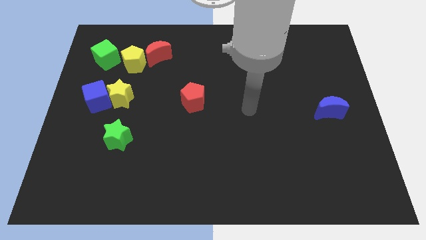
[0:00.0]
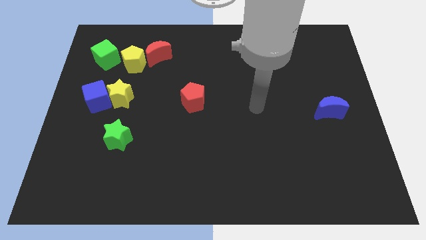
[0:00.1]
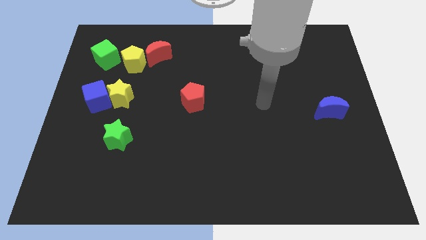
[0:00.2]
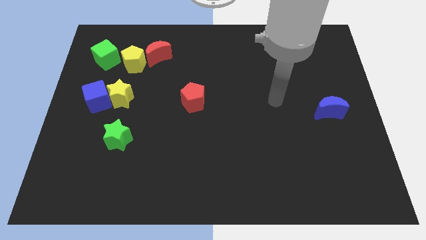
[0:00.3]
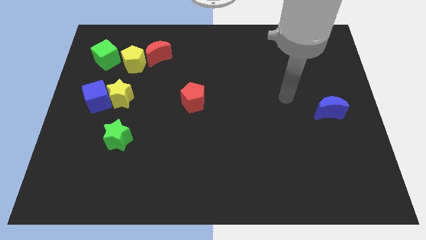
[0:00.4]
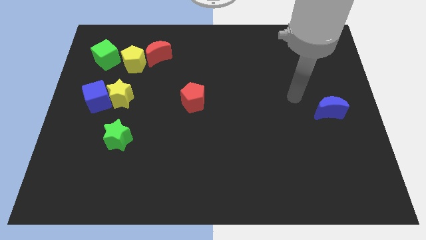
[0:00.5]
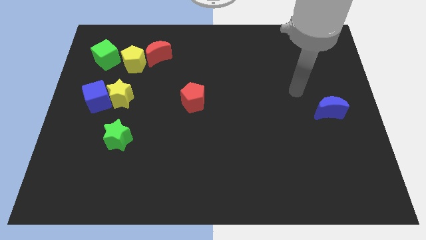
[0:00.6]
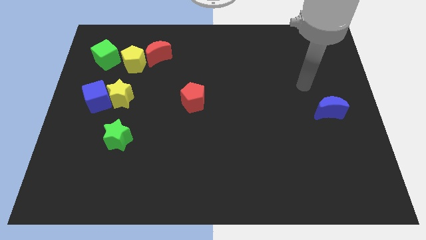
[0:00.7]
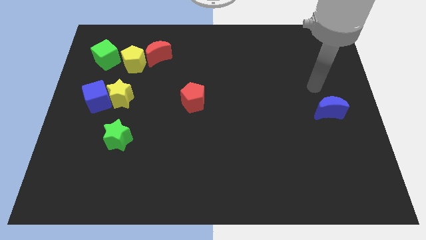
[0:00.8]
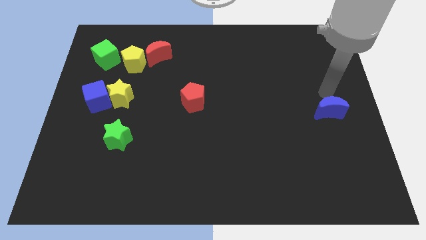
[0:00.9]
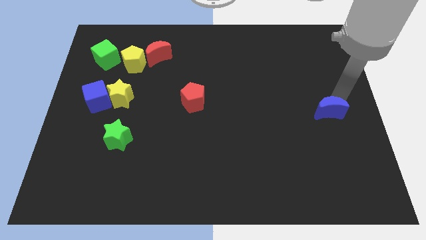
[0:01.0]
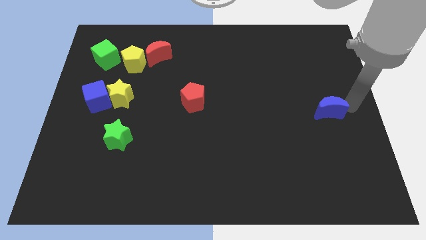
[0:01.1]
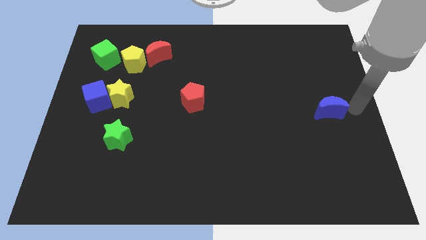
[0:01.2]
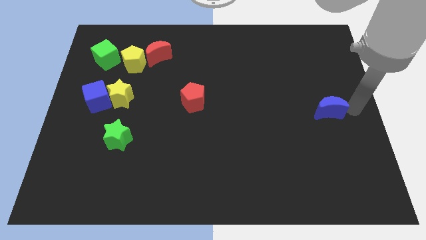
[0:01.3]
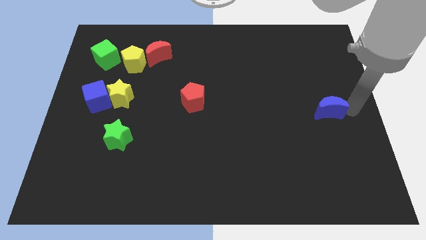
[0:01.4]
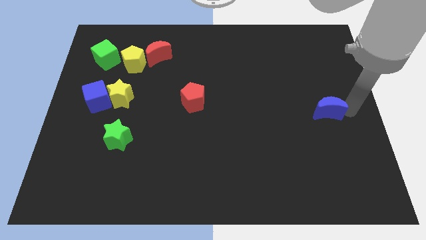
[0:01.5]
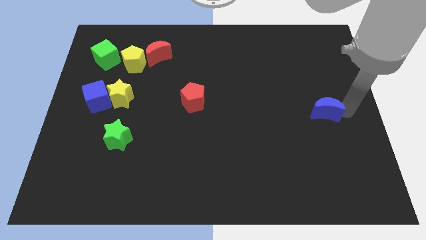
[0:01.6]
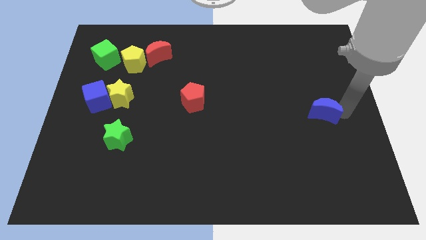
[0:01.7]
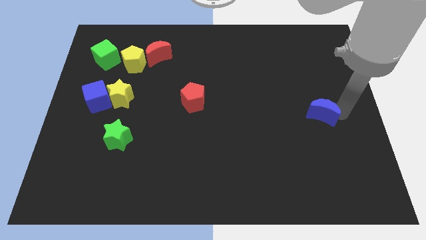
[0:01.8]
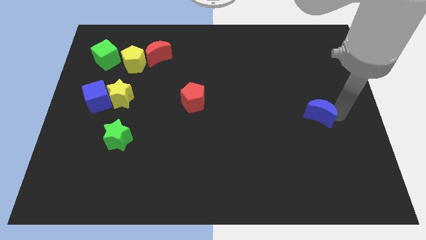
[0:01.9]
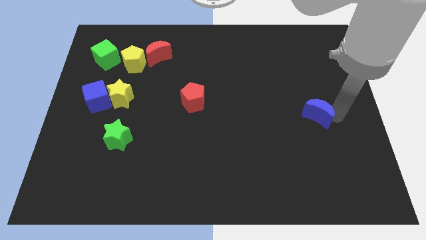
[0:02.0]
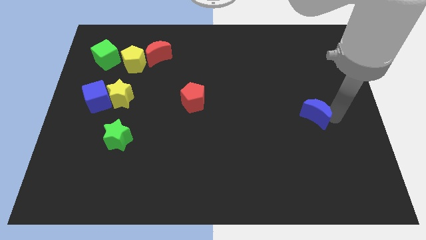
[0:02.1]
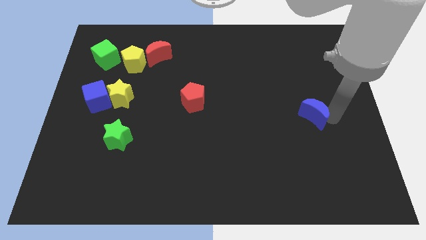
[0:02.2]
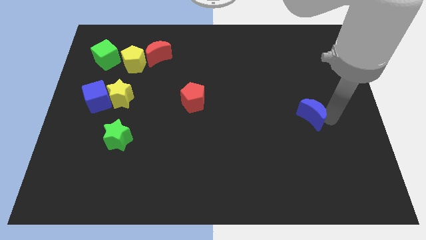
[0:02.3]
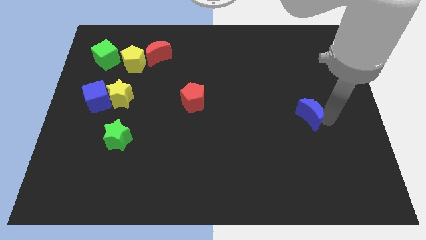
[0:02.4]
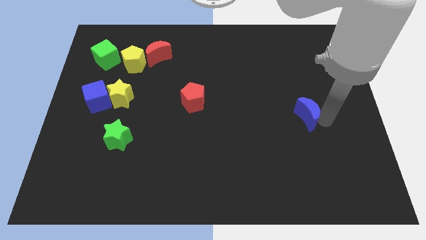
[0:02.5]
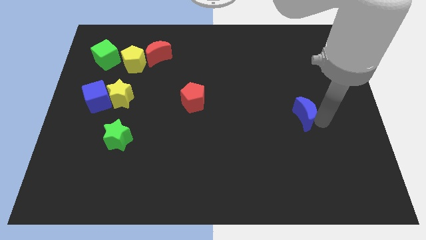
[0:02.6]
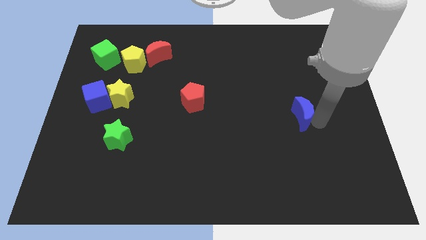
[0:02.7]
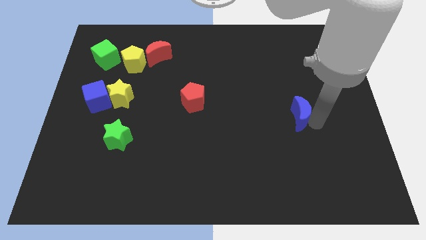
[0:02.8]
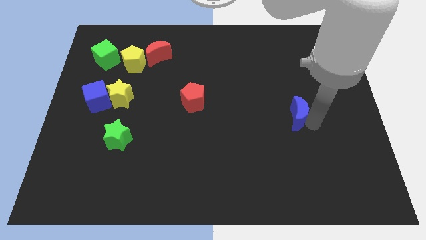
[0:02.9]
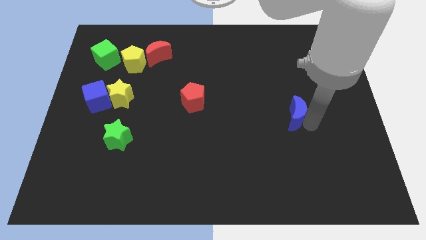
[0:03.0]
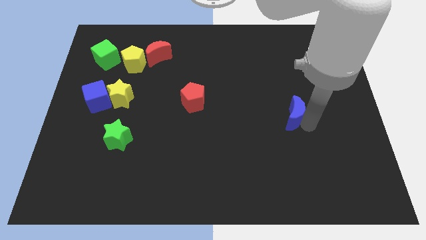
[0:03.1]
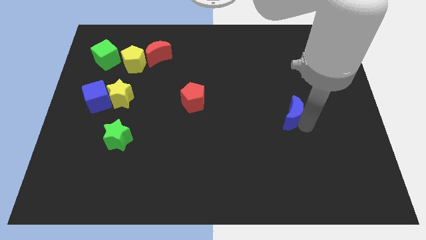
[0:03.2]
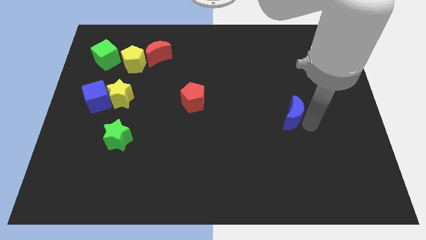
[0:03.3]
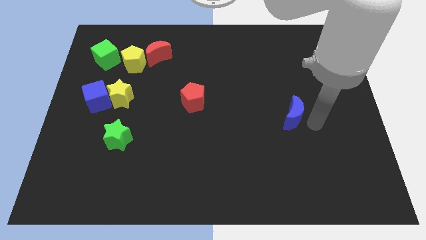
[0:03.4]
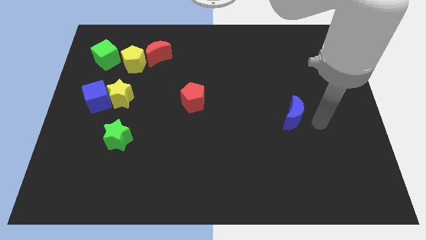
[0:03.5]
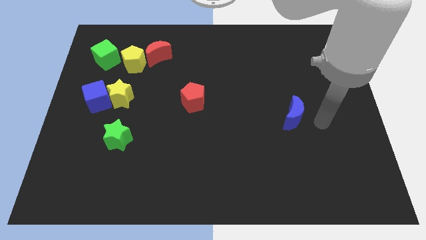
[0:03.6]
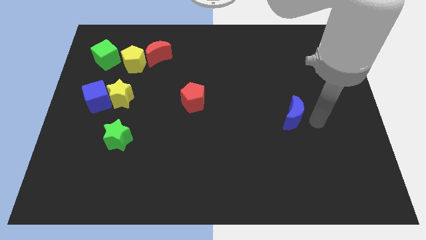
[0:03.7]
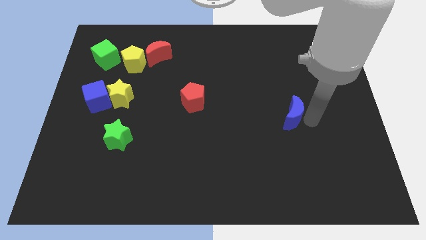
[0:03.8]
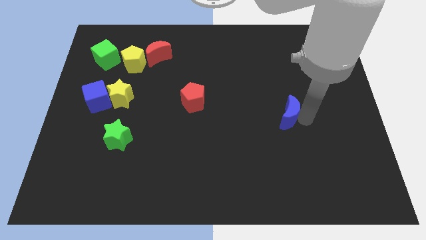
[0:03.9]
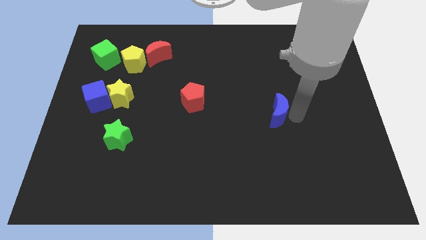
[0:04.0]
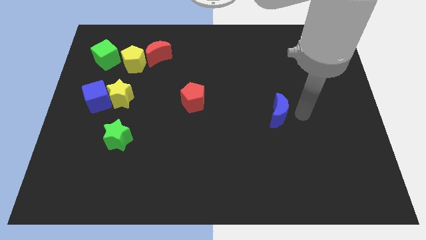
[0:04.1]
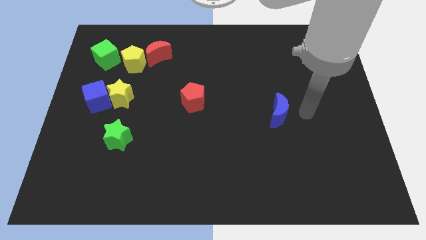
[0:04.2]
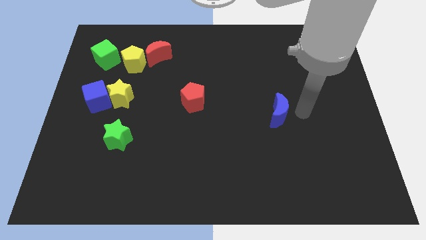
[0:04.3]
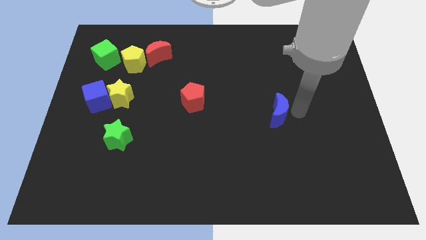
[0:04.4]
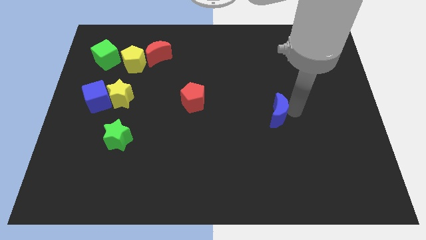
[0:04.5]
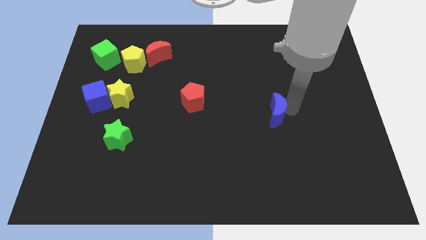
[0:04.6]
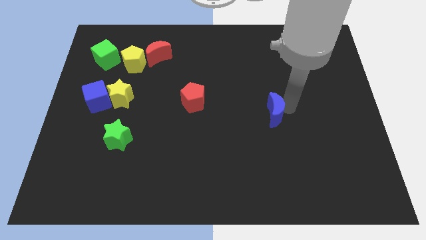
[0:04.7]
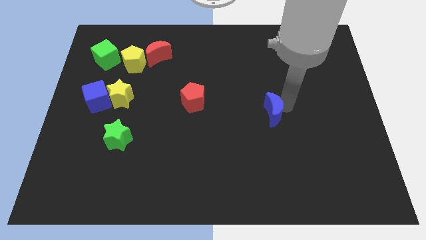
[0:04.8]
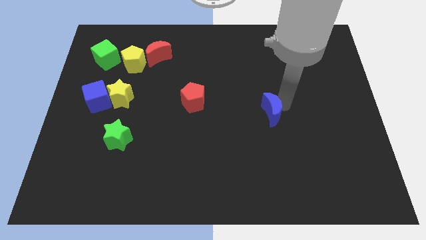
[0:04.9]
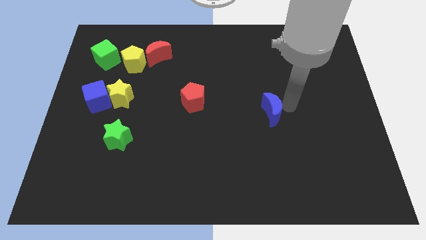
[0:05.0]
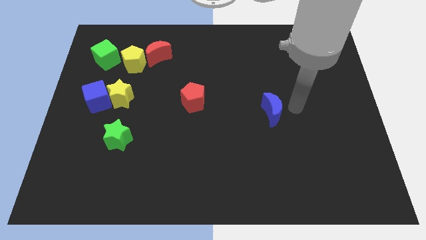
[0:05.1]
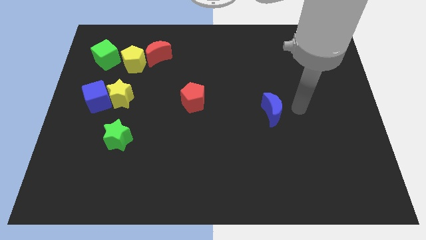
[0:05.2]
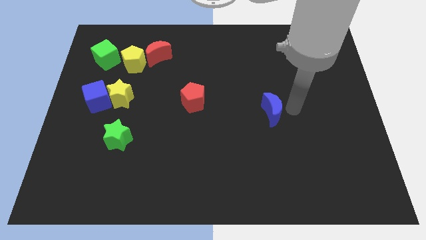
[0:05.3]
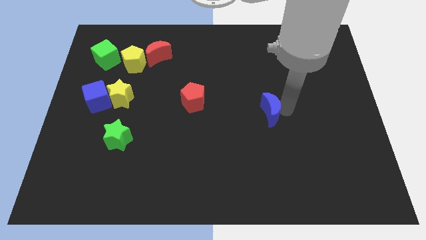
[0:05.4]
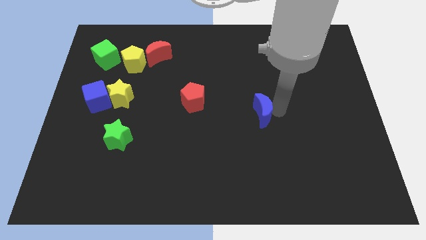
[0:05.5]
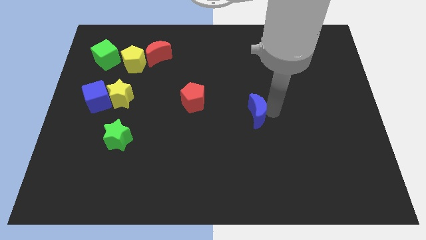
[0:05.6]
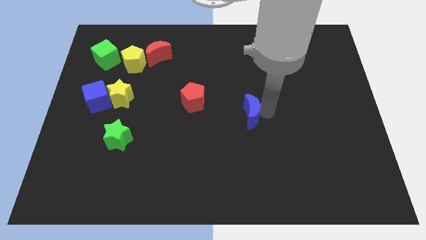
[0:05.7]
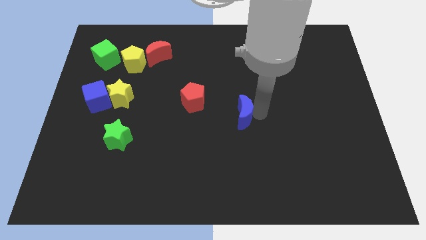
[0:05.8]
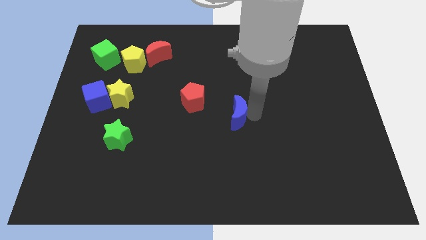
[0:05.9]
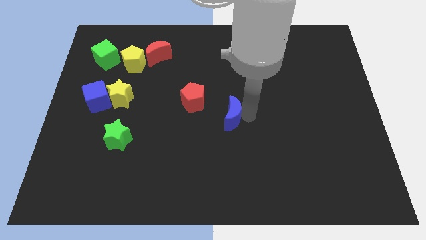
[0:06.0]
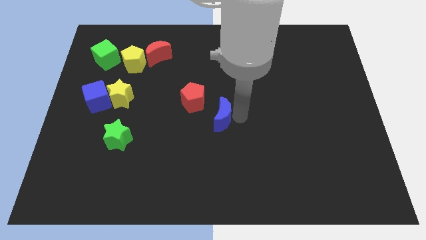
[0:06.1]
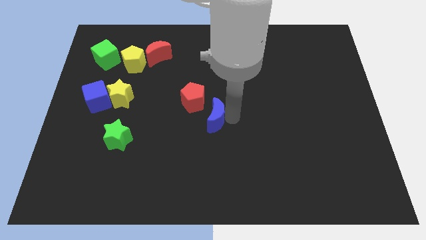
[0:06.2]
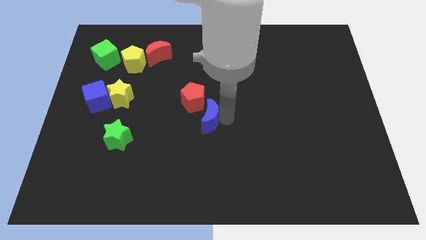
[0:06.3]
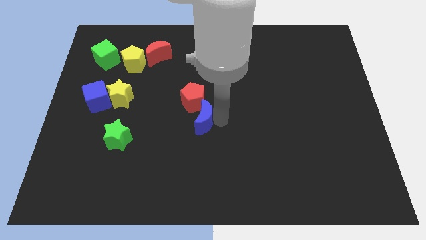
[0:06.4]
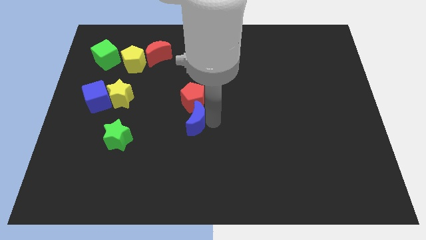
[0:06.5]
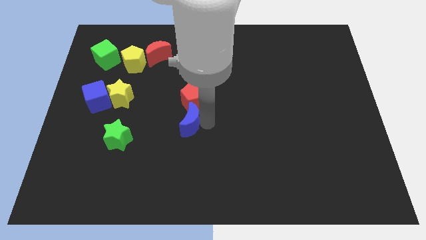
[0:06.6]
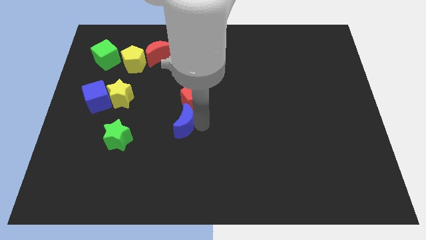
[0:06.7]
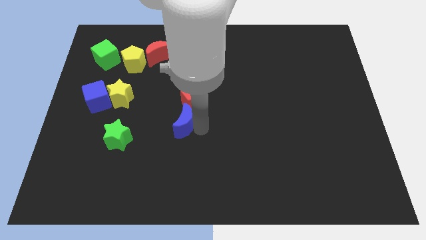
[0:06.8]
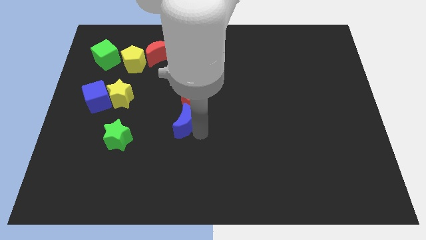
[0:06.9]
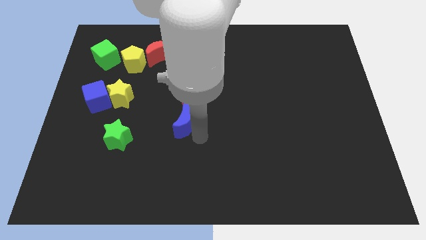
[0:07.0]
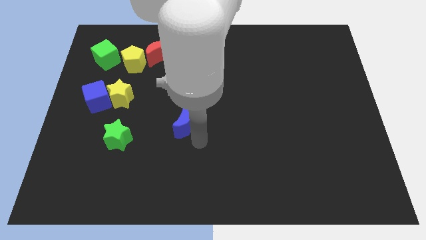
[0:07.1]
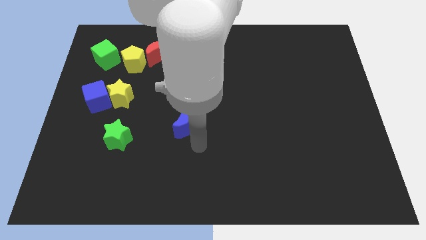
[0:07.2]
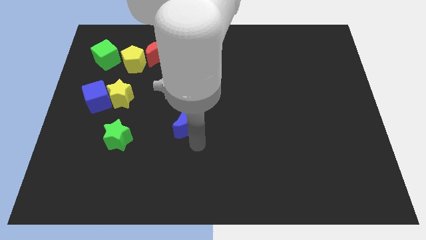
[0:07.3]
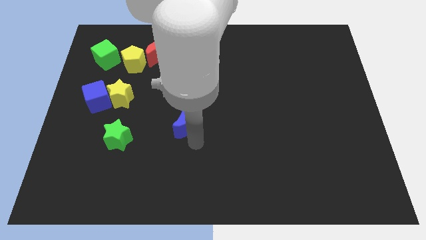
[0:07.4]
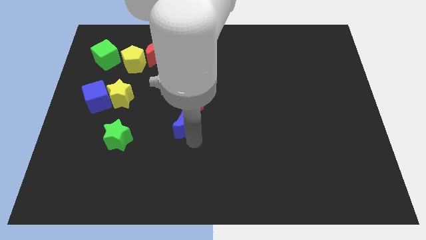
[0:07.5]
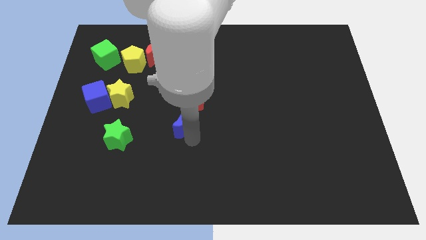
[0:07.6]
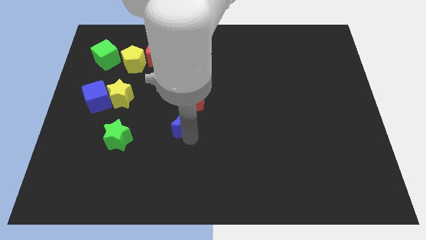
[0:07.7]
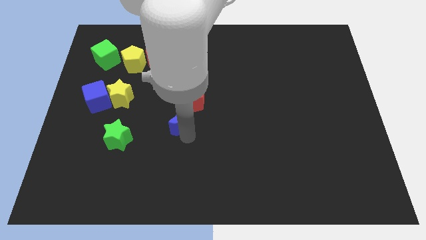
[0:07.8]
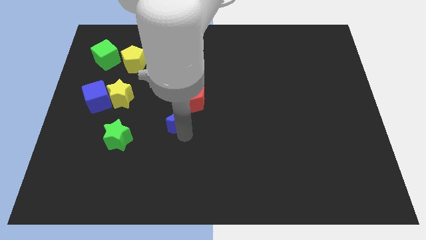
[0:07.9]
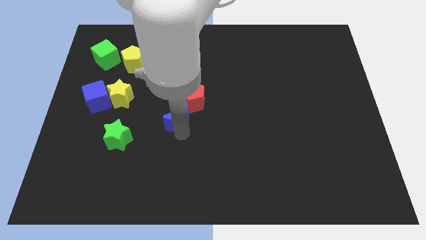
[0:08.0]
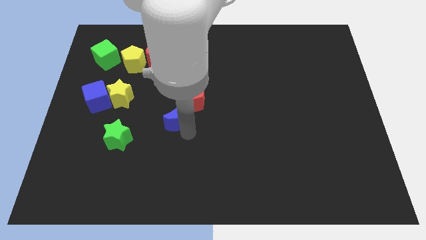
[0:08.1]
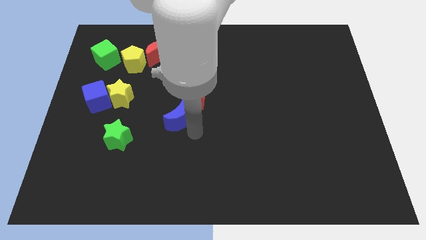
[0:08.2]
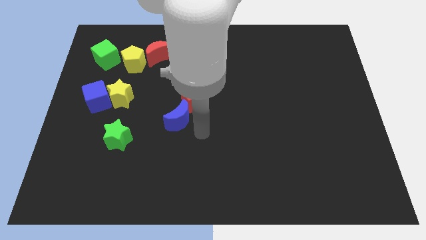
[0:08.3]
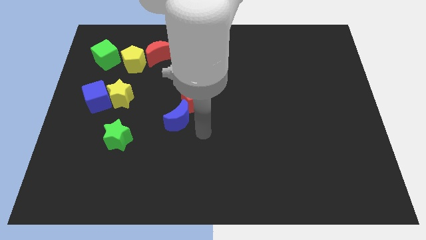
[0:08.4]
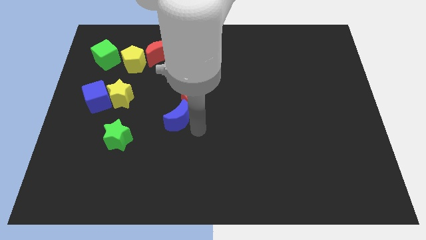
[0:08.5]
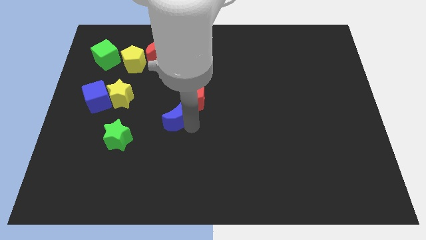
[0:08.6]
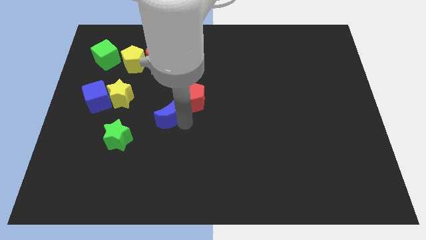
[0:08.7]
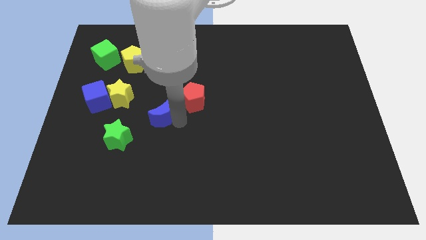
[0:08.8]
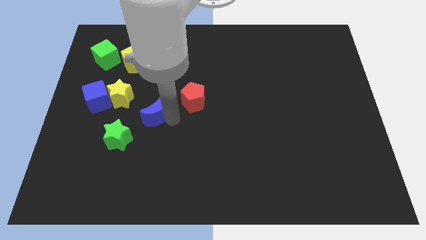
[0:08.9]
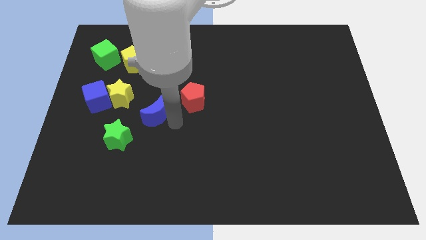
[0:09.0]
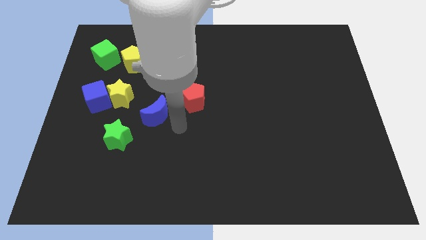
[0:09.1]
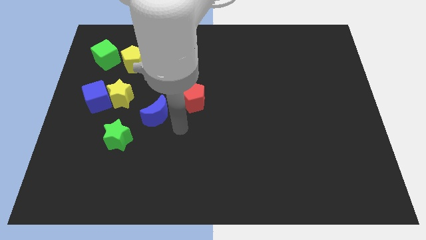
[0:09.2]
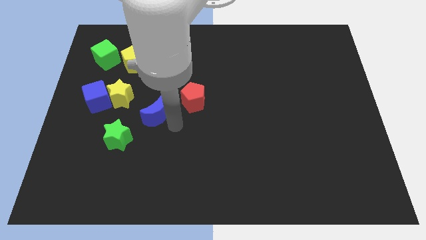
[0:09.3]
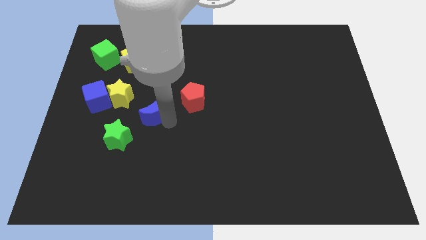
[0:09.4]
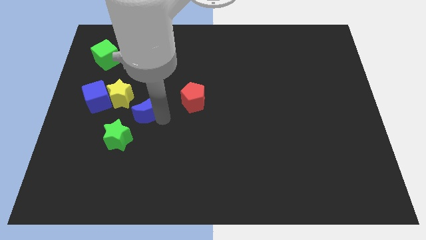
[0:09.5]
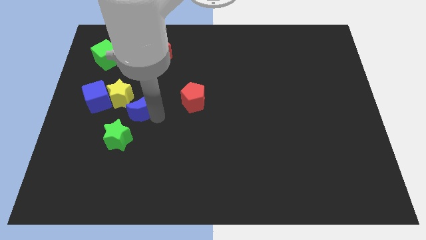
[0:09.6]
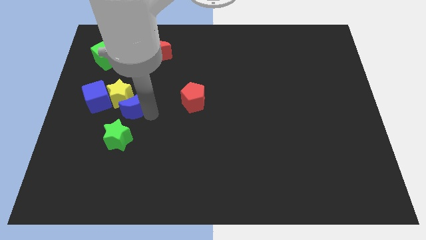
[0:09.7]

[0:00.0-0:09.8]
slide the blue moon to the yellow star
